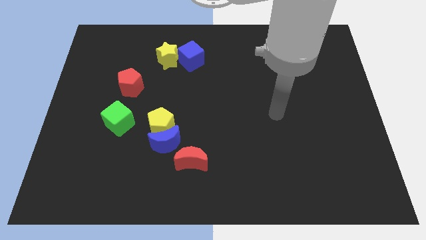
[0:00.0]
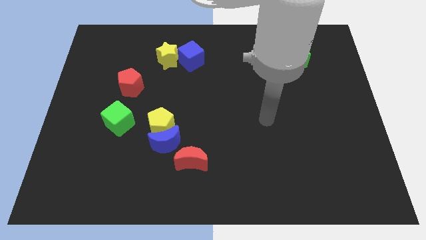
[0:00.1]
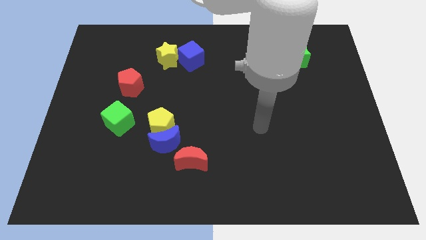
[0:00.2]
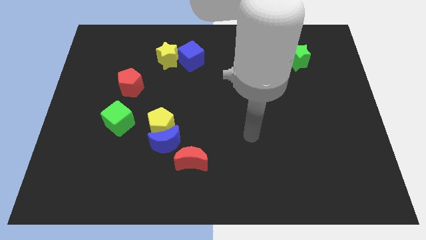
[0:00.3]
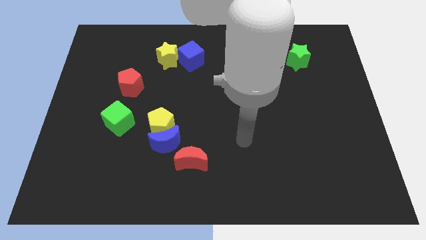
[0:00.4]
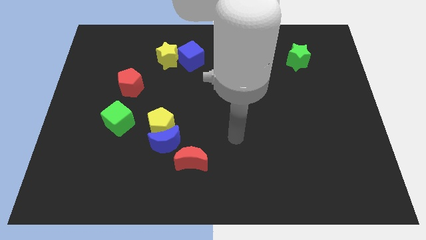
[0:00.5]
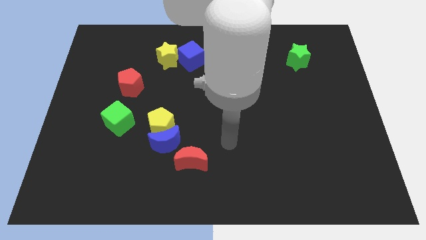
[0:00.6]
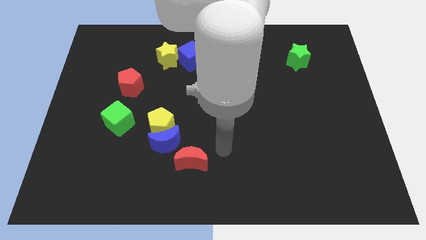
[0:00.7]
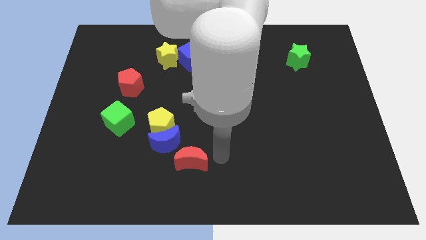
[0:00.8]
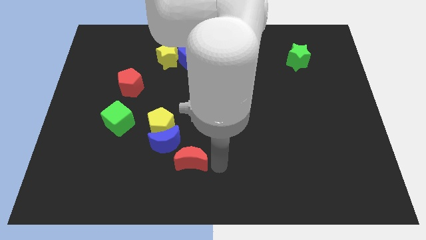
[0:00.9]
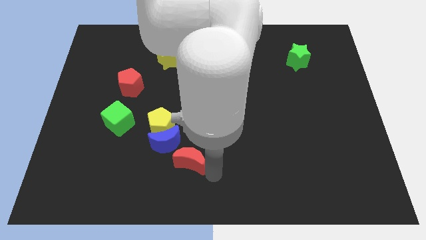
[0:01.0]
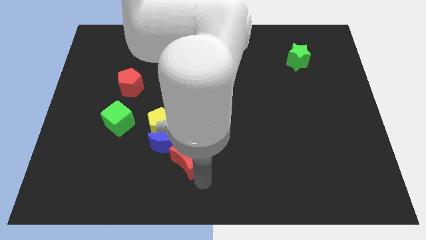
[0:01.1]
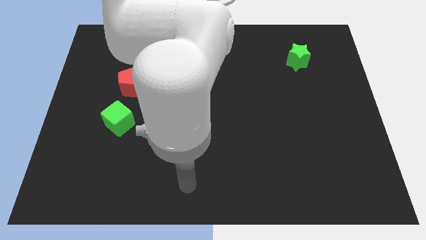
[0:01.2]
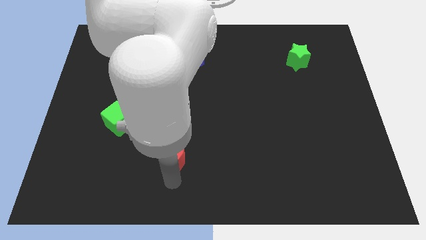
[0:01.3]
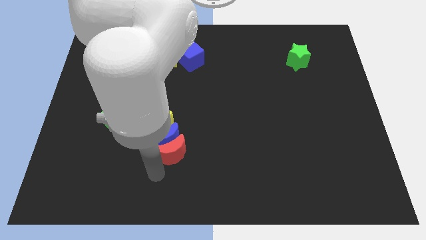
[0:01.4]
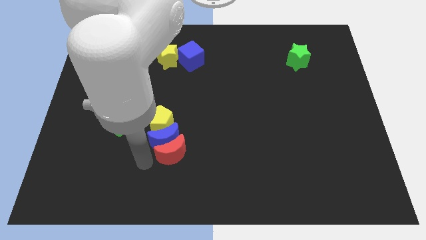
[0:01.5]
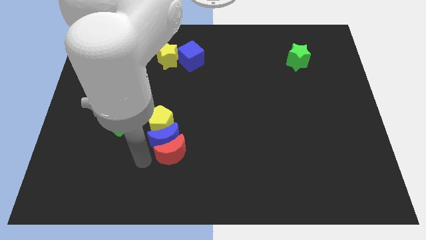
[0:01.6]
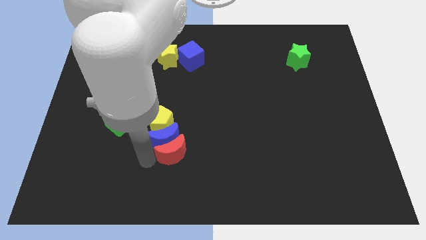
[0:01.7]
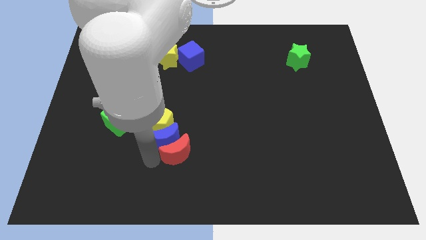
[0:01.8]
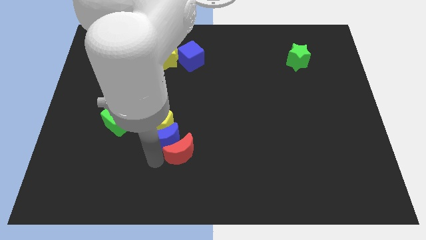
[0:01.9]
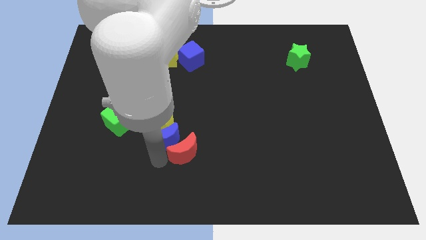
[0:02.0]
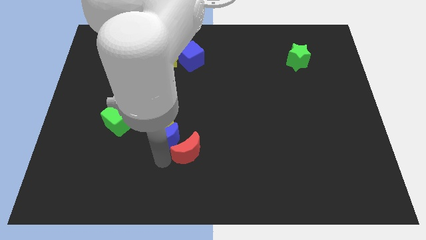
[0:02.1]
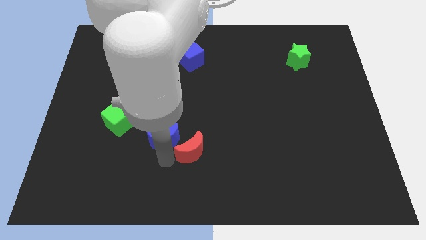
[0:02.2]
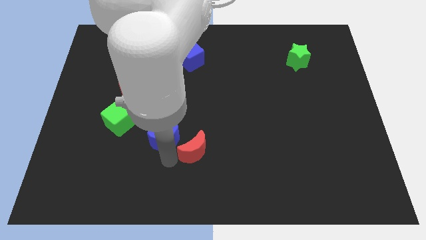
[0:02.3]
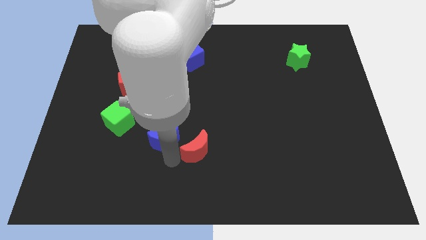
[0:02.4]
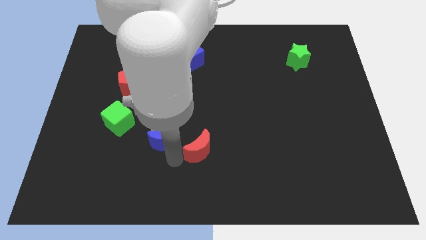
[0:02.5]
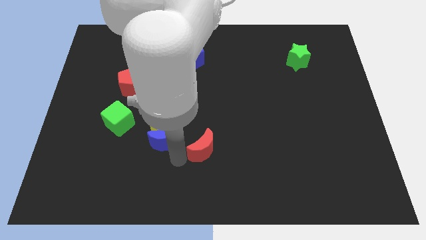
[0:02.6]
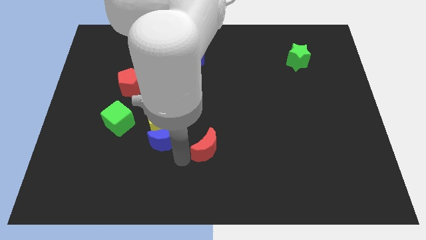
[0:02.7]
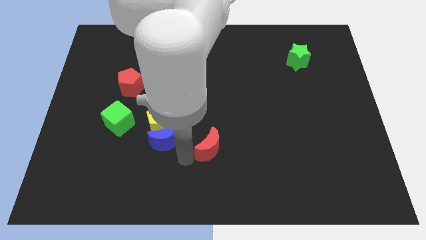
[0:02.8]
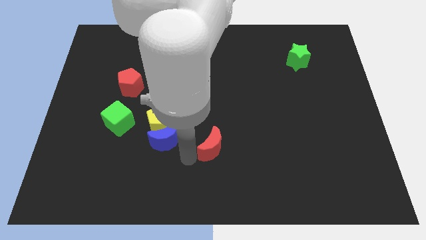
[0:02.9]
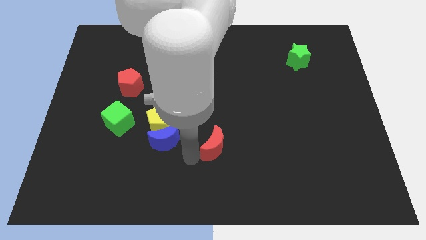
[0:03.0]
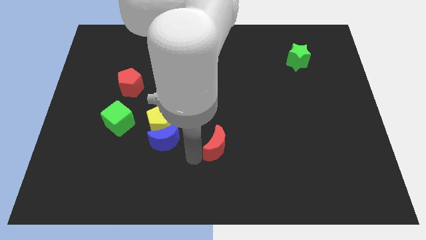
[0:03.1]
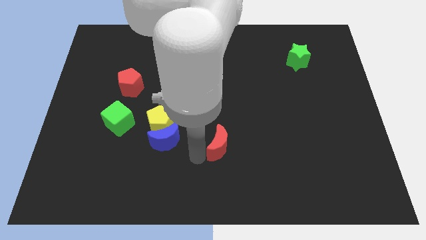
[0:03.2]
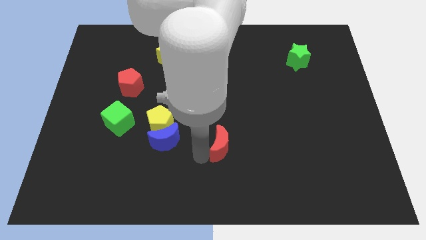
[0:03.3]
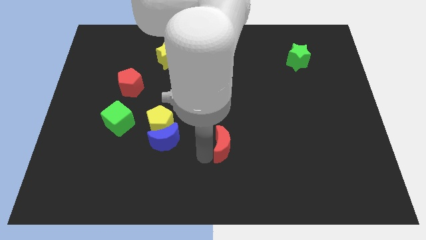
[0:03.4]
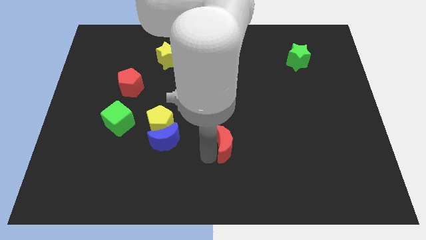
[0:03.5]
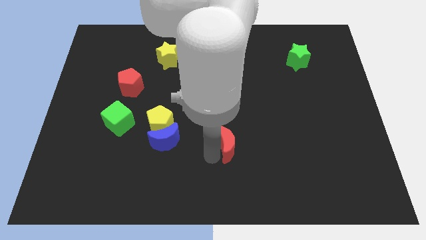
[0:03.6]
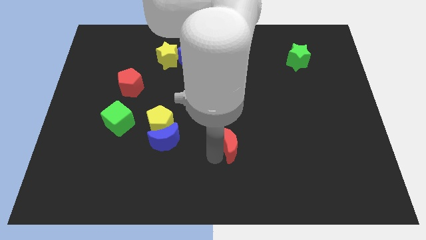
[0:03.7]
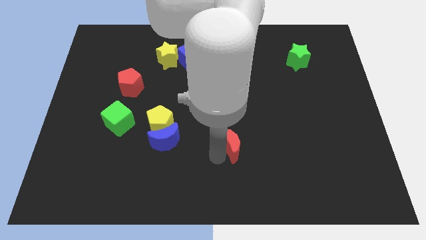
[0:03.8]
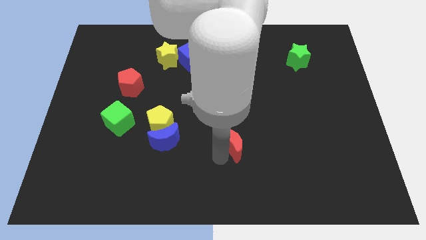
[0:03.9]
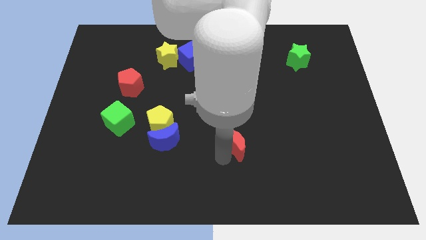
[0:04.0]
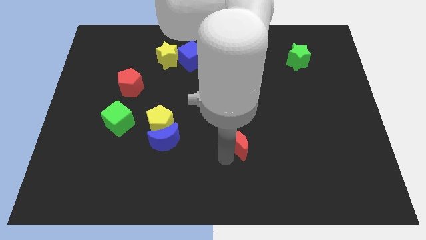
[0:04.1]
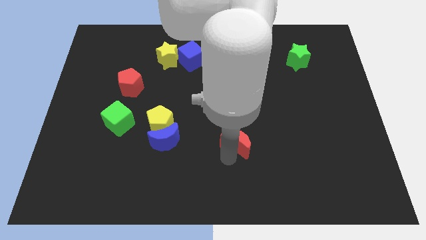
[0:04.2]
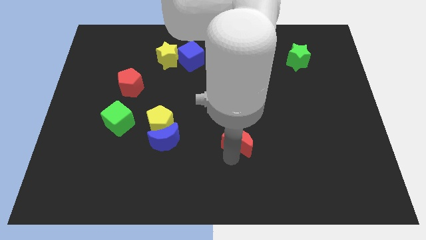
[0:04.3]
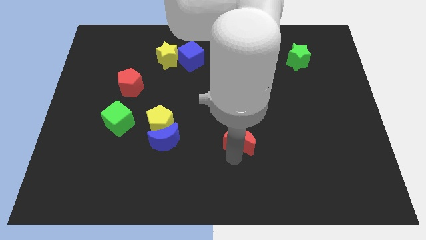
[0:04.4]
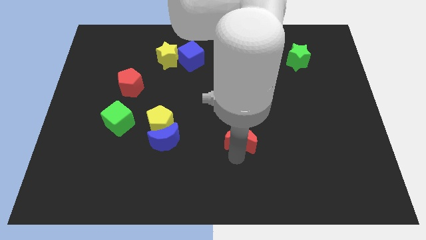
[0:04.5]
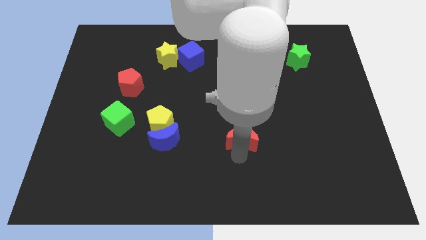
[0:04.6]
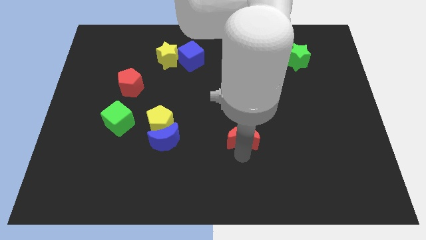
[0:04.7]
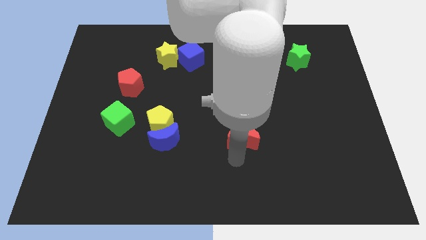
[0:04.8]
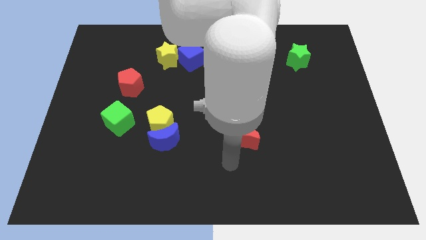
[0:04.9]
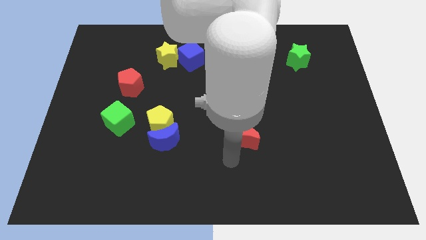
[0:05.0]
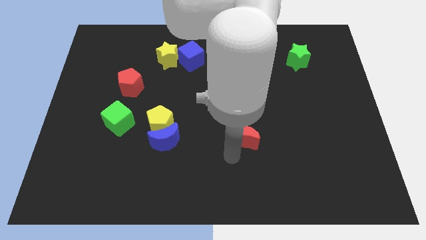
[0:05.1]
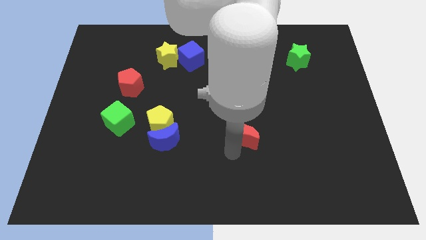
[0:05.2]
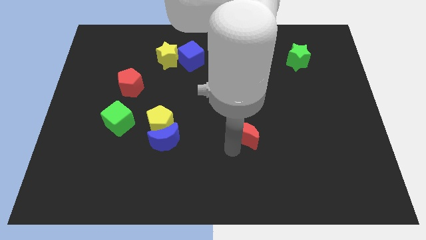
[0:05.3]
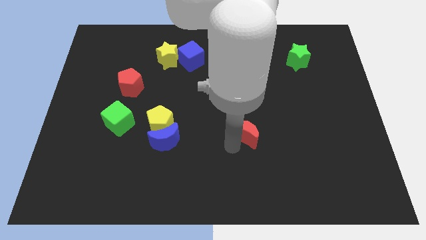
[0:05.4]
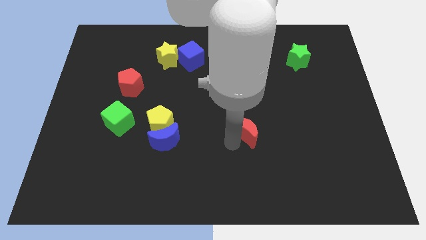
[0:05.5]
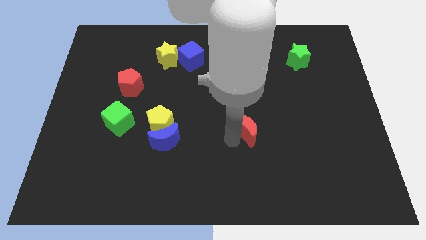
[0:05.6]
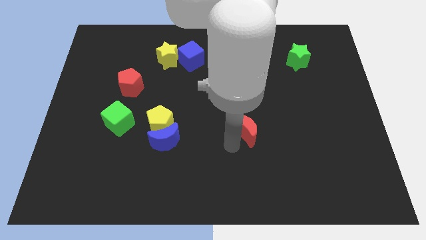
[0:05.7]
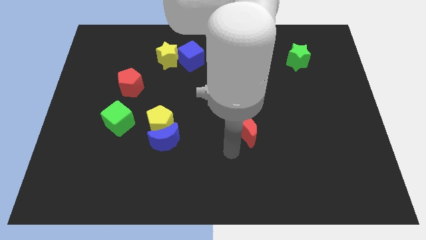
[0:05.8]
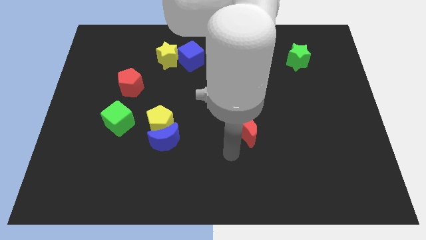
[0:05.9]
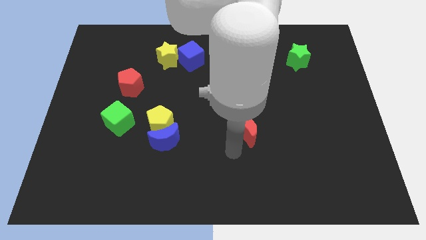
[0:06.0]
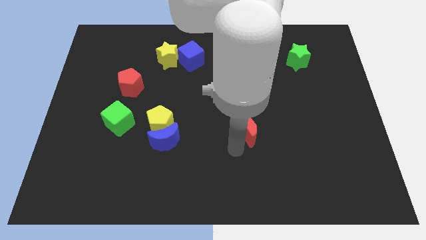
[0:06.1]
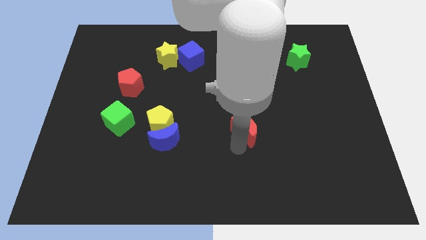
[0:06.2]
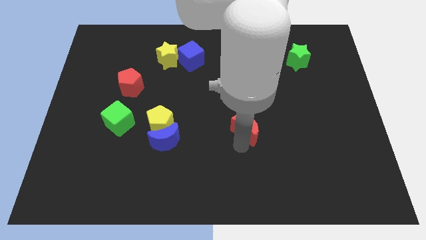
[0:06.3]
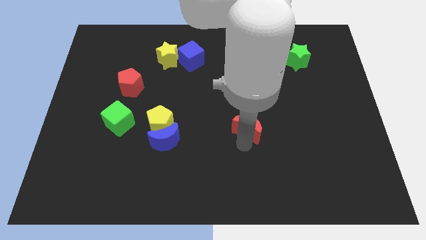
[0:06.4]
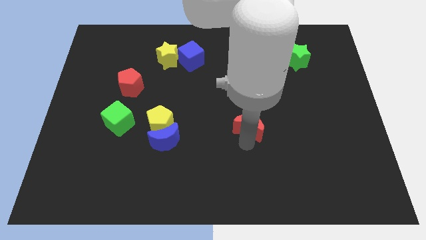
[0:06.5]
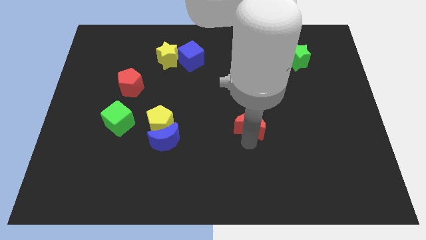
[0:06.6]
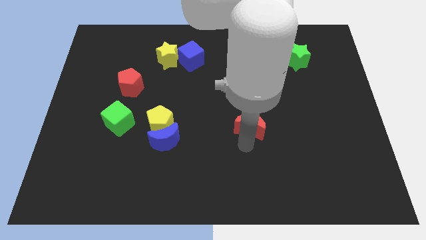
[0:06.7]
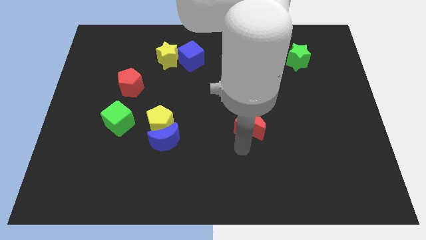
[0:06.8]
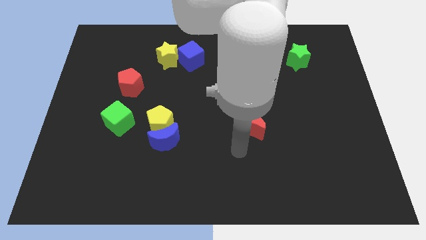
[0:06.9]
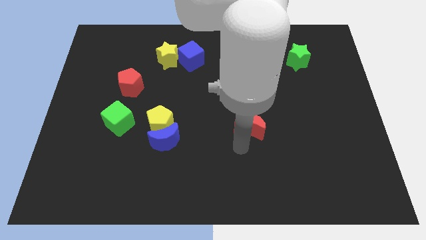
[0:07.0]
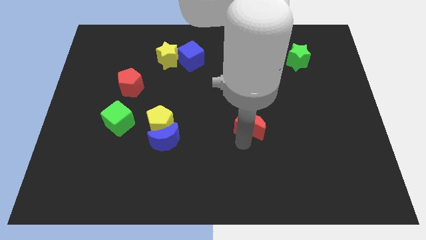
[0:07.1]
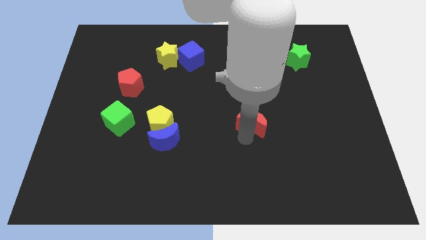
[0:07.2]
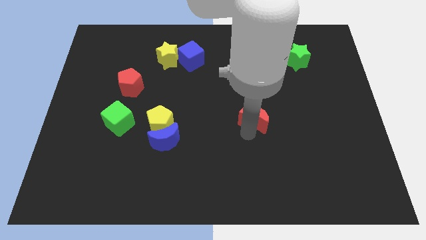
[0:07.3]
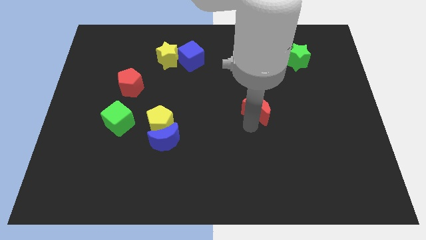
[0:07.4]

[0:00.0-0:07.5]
slide the red moon upwards and to the right diagonally

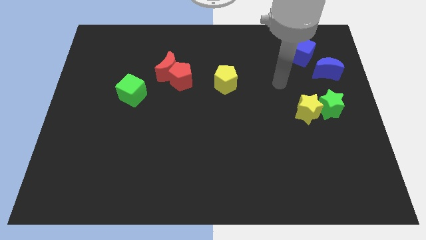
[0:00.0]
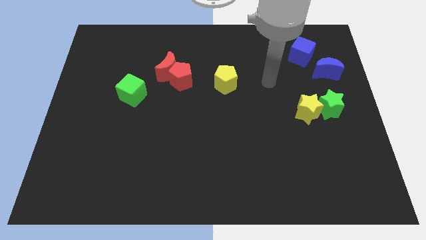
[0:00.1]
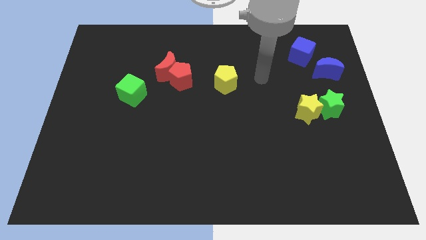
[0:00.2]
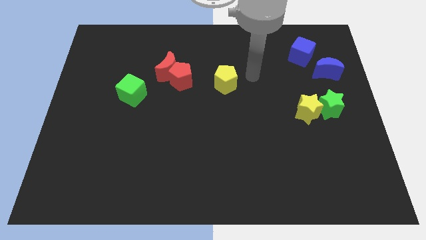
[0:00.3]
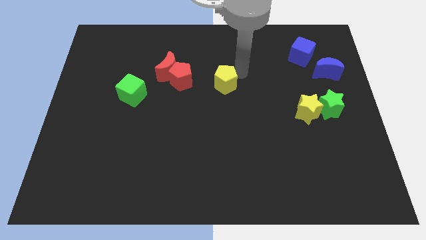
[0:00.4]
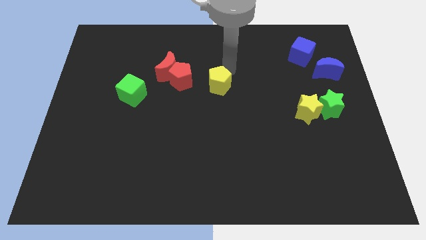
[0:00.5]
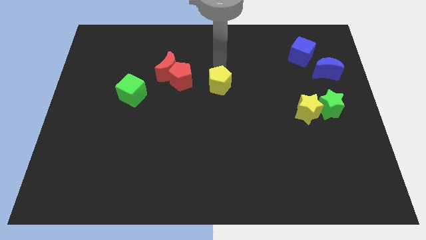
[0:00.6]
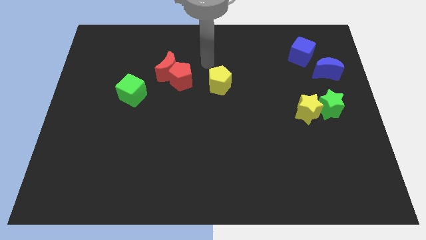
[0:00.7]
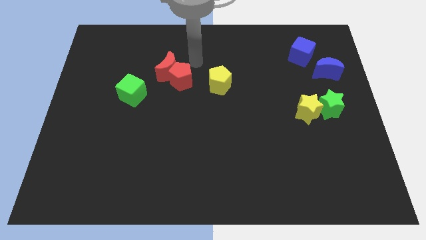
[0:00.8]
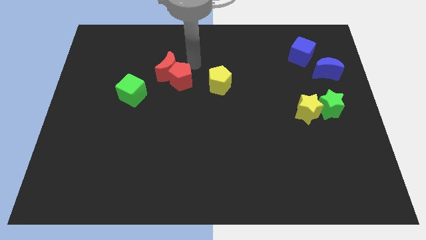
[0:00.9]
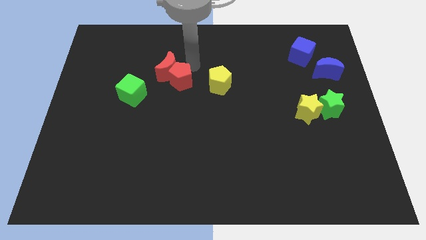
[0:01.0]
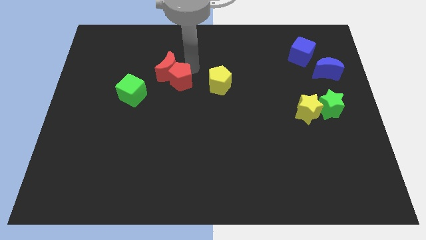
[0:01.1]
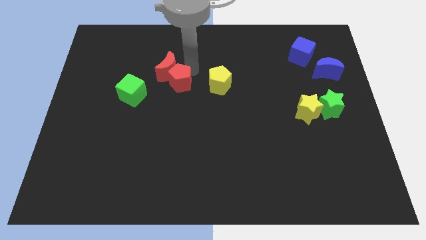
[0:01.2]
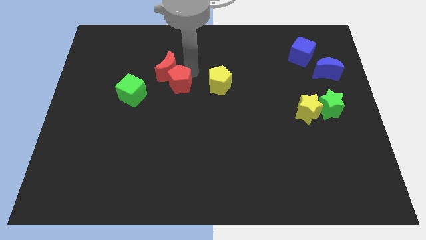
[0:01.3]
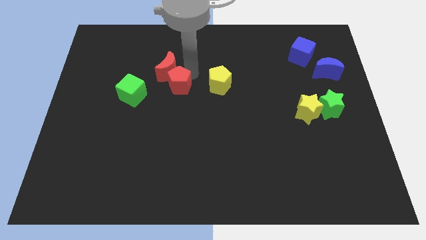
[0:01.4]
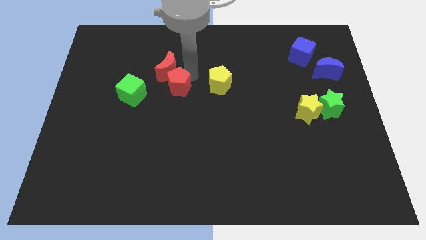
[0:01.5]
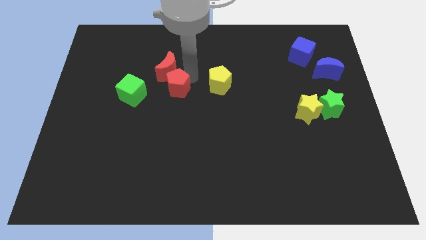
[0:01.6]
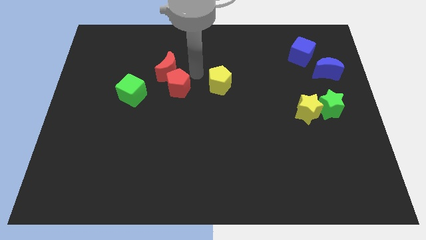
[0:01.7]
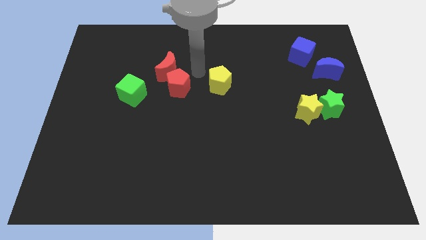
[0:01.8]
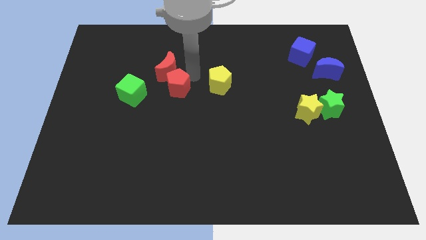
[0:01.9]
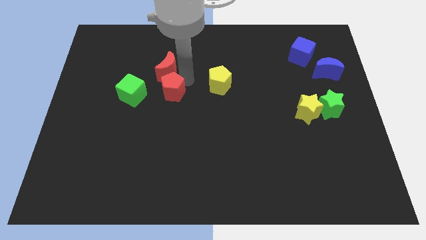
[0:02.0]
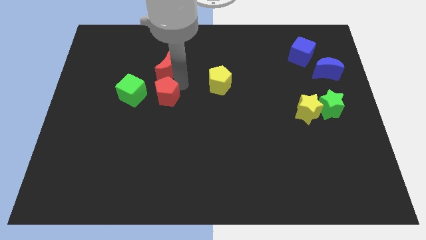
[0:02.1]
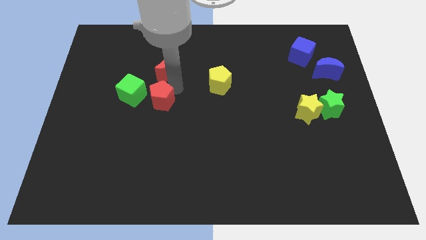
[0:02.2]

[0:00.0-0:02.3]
slightly move the red pentagon downwards and to the left diagonally
